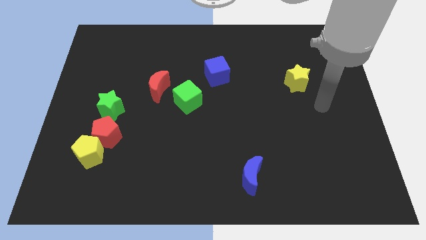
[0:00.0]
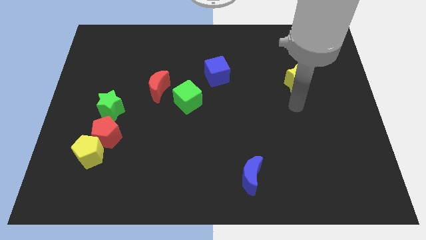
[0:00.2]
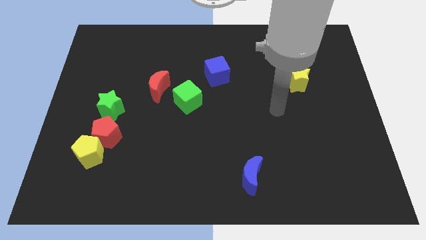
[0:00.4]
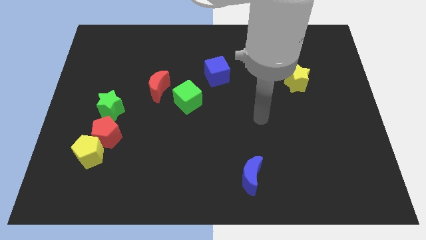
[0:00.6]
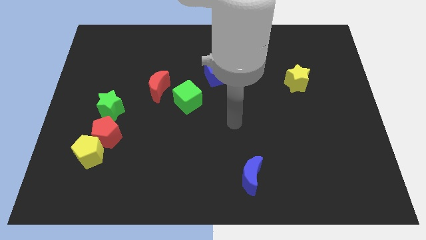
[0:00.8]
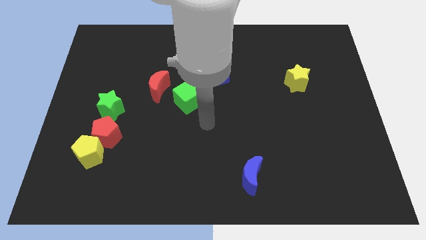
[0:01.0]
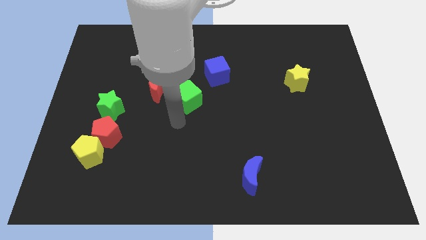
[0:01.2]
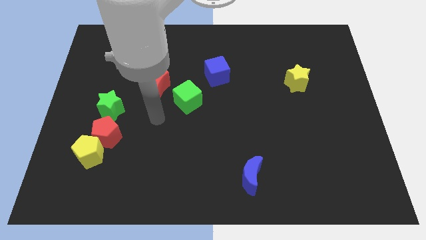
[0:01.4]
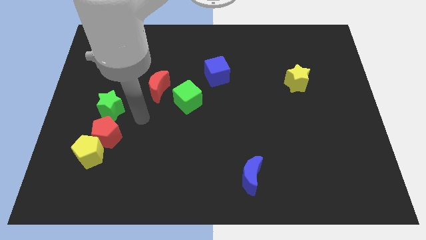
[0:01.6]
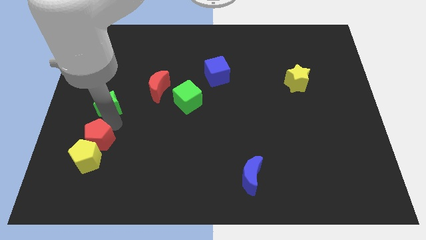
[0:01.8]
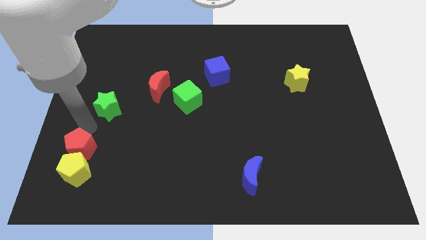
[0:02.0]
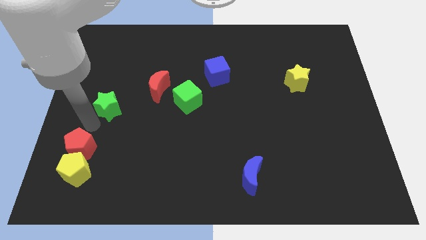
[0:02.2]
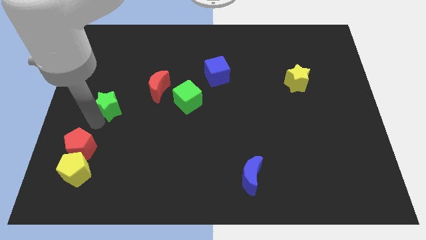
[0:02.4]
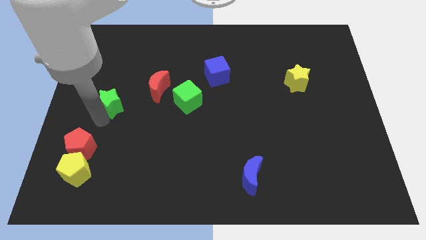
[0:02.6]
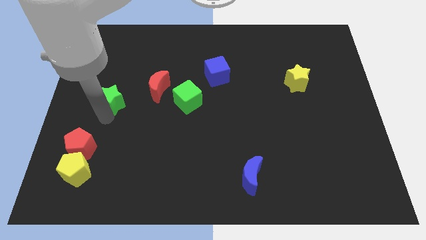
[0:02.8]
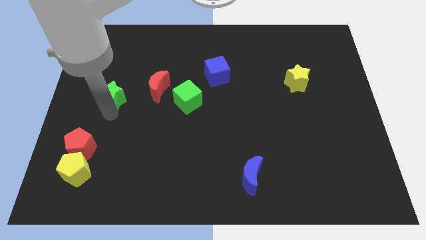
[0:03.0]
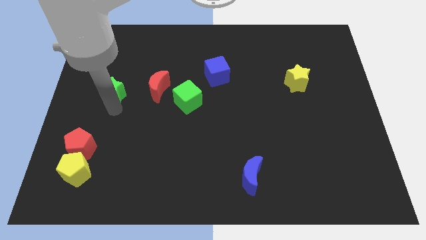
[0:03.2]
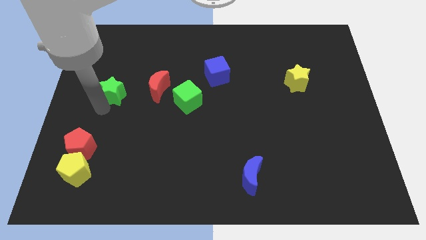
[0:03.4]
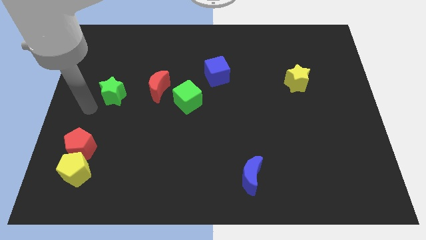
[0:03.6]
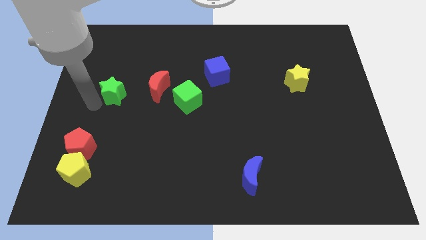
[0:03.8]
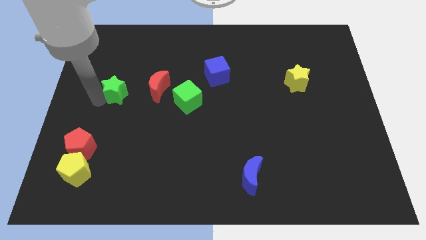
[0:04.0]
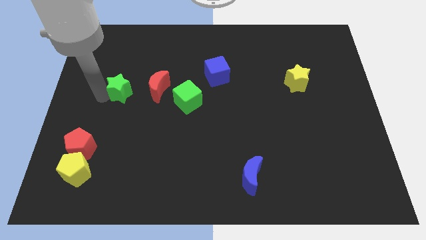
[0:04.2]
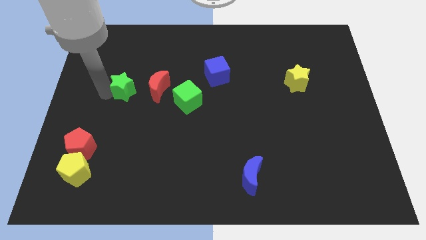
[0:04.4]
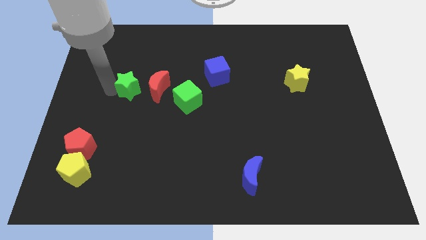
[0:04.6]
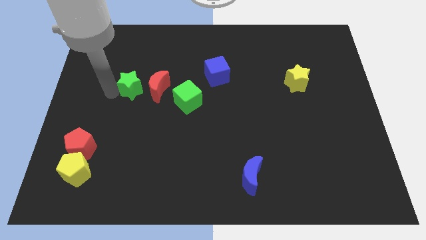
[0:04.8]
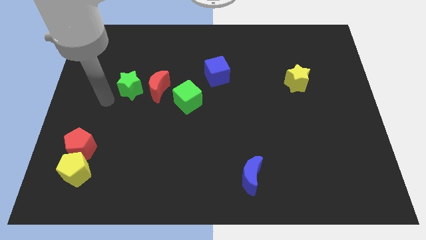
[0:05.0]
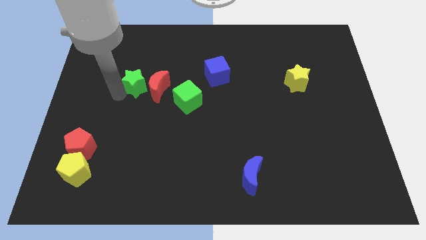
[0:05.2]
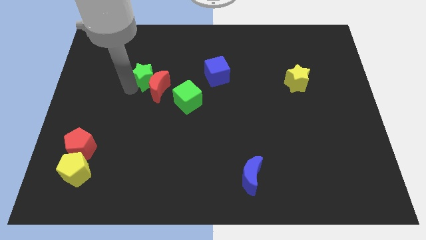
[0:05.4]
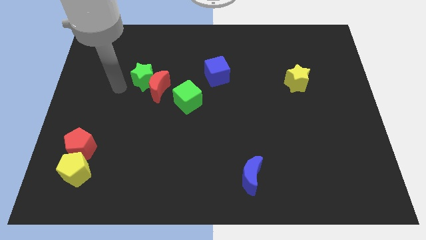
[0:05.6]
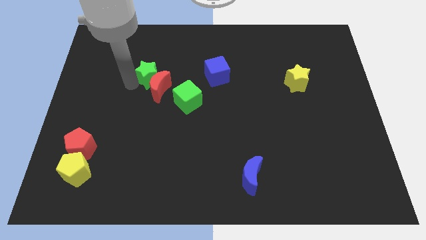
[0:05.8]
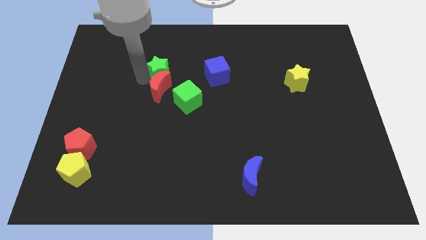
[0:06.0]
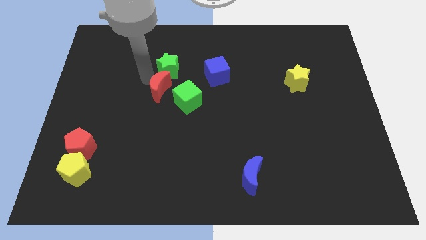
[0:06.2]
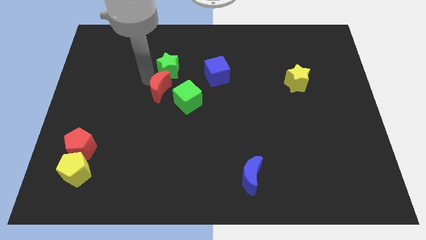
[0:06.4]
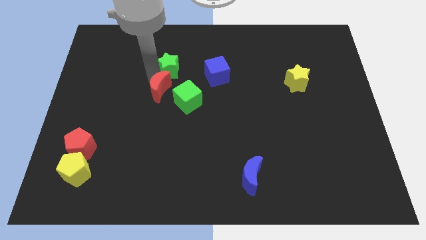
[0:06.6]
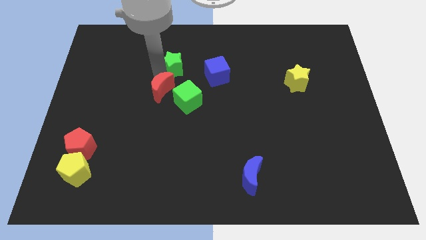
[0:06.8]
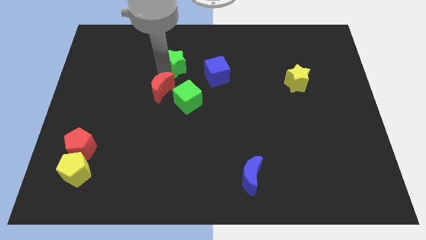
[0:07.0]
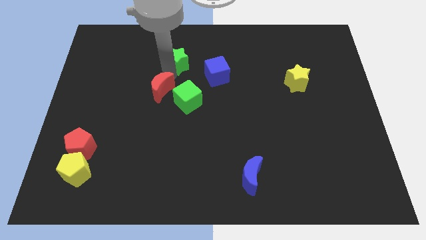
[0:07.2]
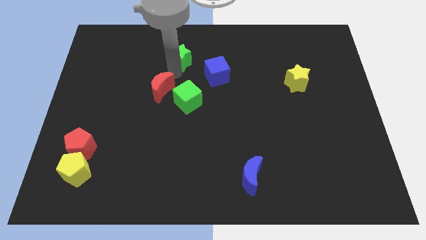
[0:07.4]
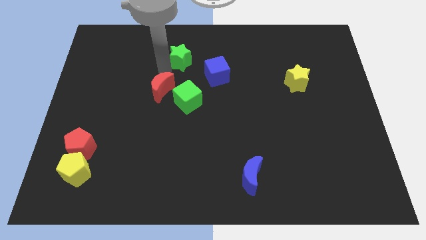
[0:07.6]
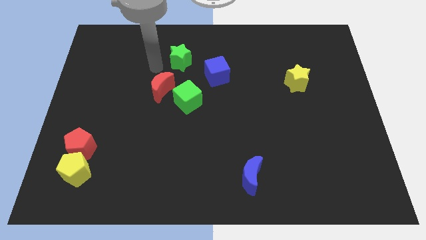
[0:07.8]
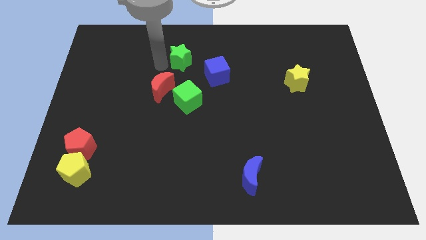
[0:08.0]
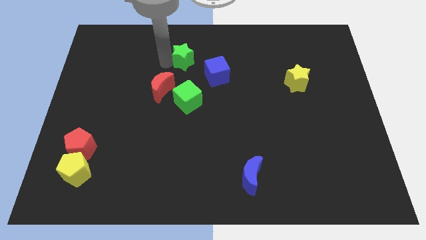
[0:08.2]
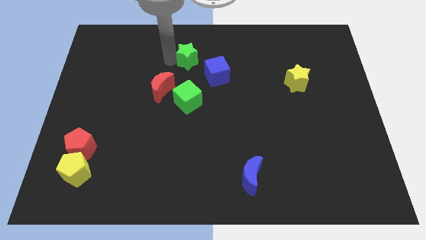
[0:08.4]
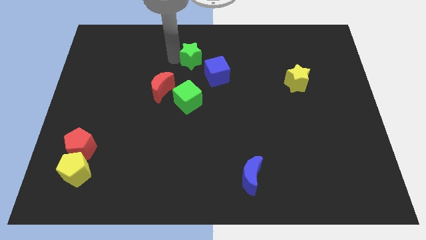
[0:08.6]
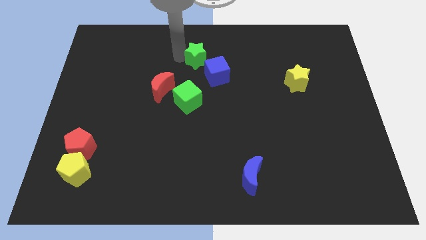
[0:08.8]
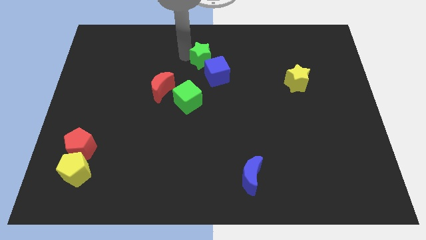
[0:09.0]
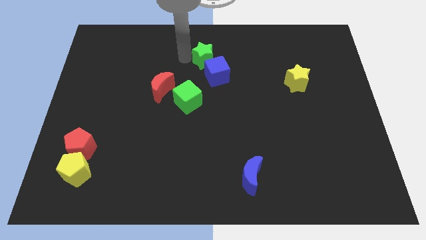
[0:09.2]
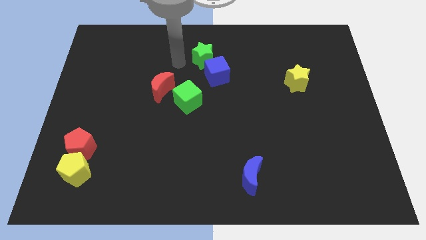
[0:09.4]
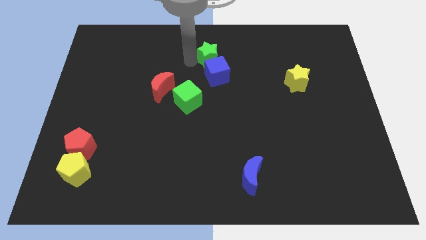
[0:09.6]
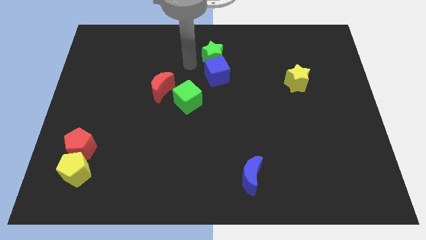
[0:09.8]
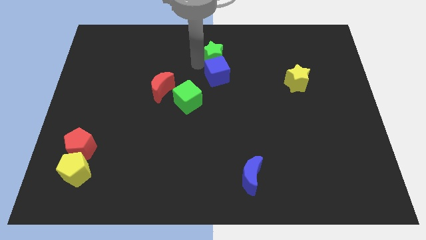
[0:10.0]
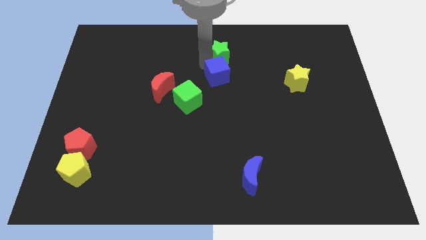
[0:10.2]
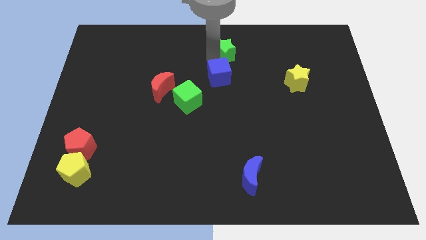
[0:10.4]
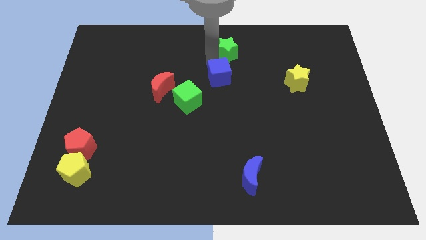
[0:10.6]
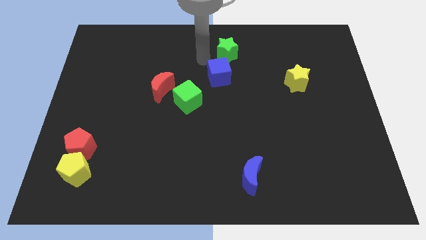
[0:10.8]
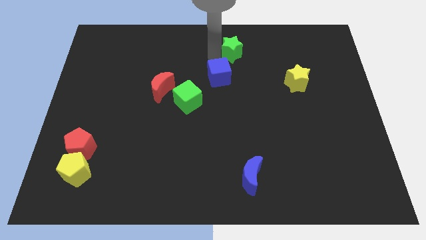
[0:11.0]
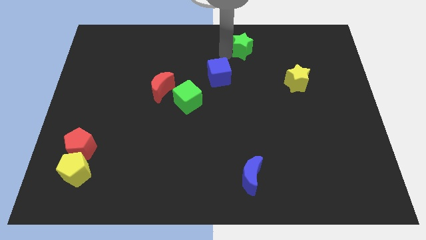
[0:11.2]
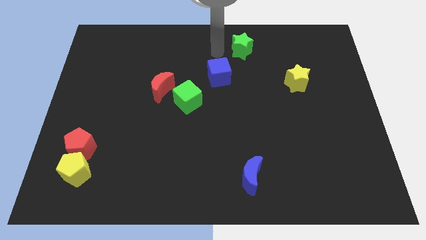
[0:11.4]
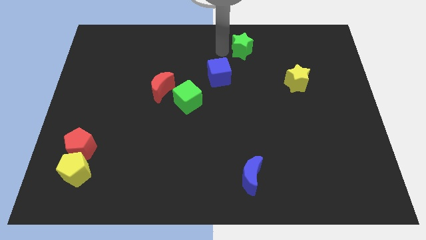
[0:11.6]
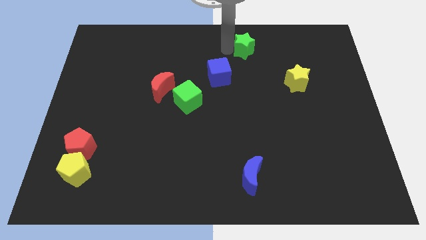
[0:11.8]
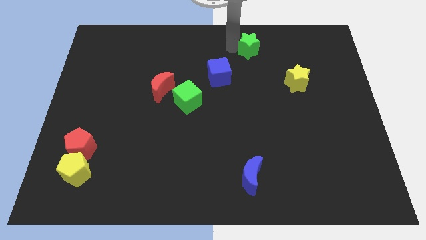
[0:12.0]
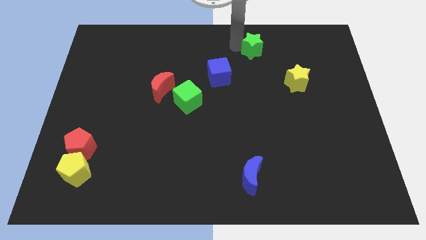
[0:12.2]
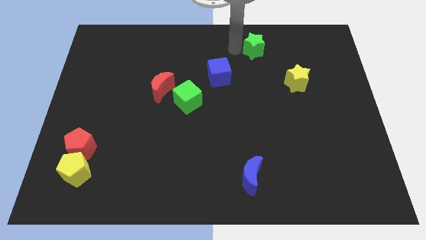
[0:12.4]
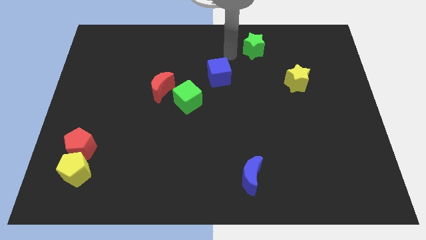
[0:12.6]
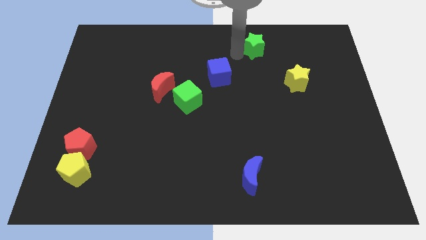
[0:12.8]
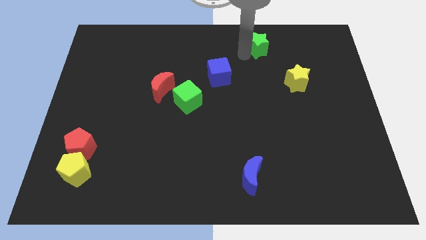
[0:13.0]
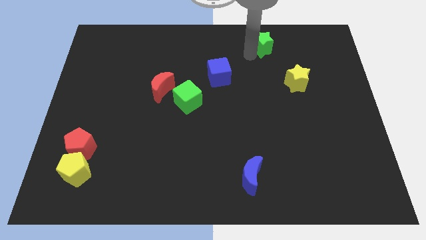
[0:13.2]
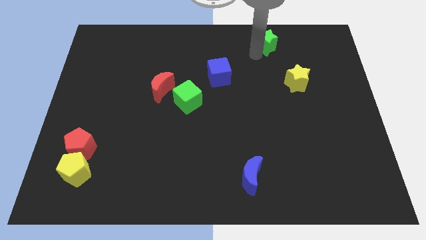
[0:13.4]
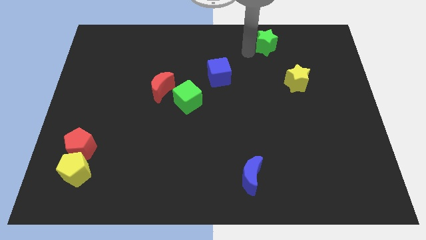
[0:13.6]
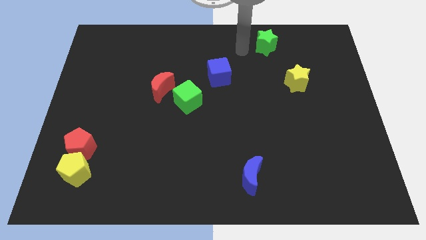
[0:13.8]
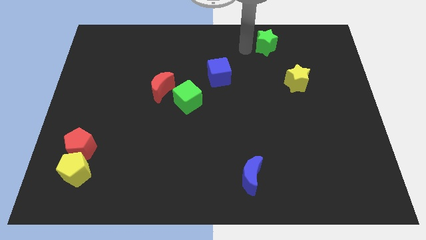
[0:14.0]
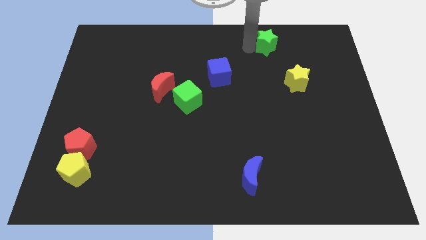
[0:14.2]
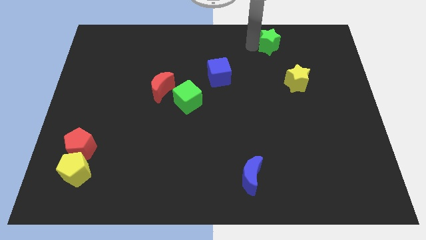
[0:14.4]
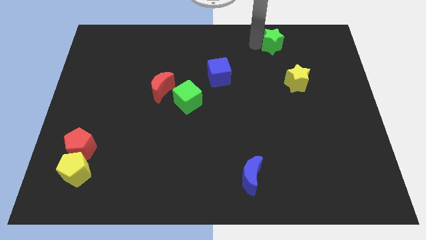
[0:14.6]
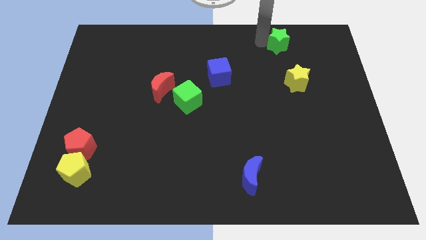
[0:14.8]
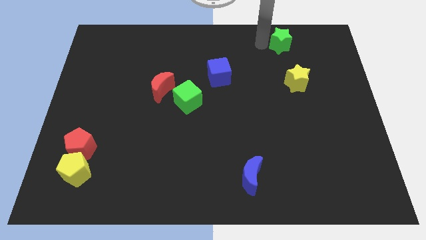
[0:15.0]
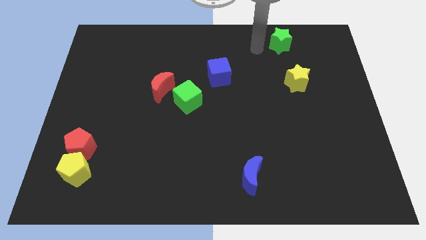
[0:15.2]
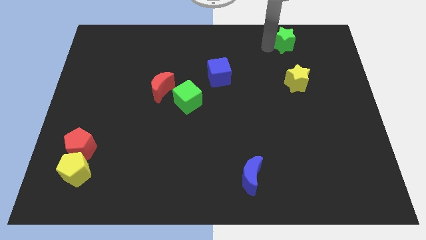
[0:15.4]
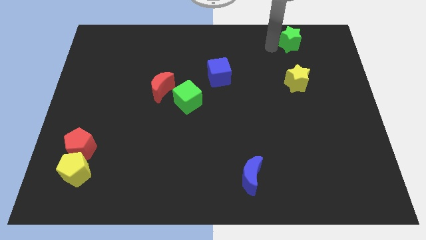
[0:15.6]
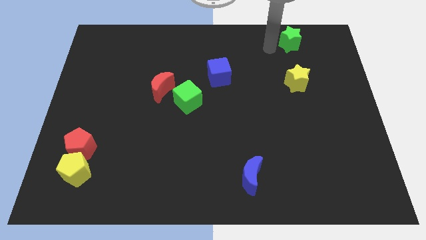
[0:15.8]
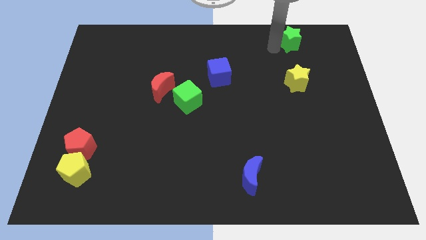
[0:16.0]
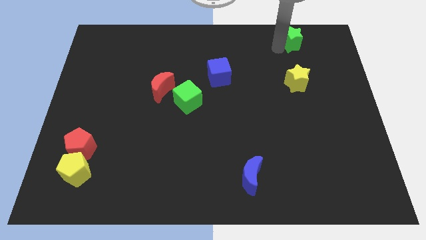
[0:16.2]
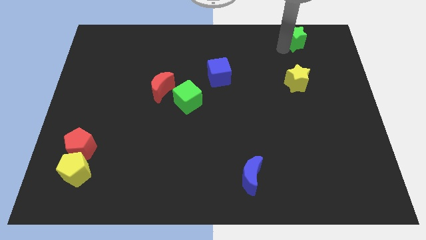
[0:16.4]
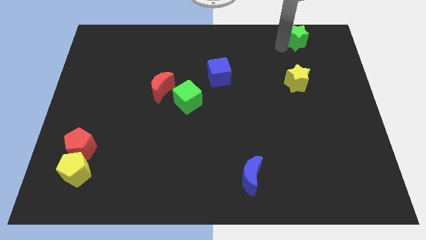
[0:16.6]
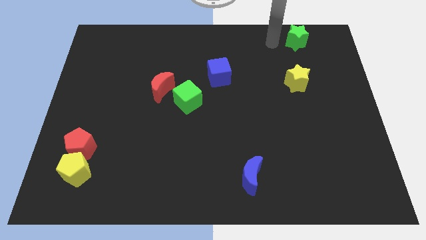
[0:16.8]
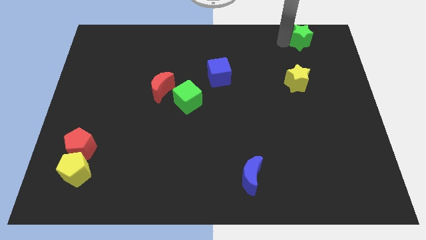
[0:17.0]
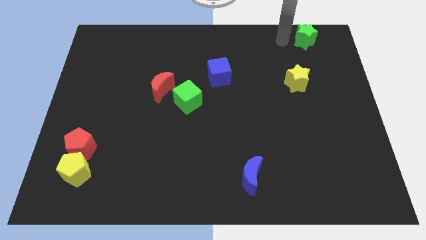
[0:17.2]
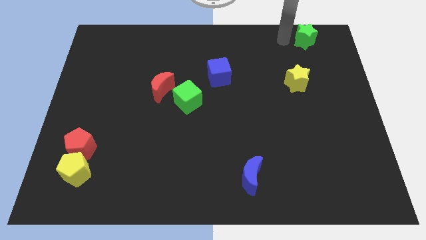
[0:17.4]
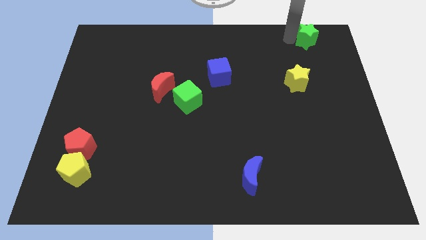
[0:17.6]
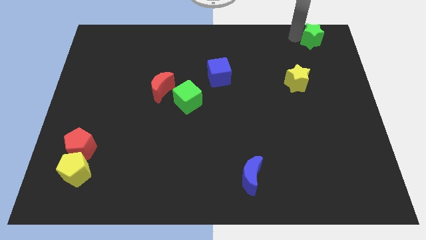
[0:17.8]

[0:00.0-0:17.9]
slide the green star to the top right of the board
